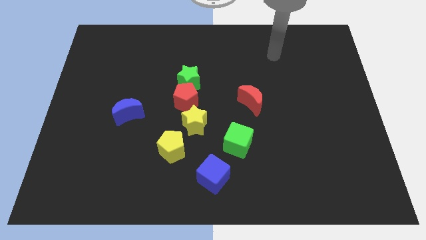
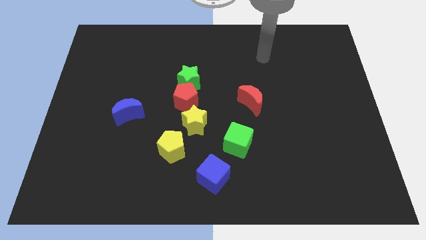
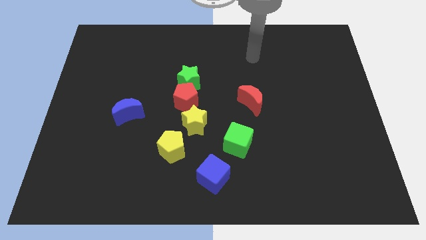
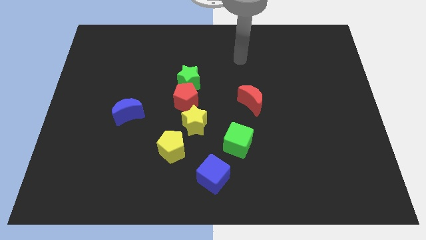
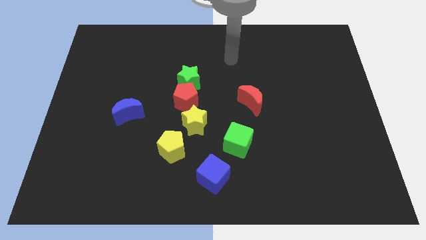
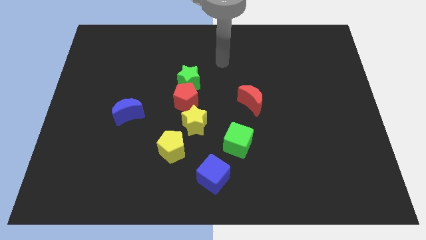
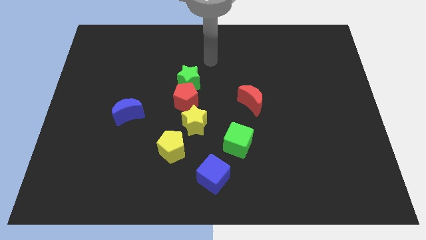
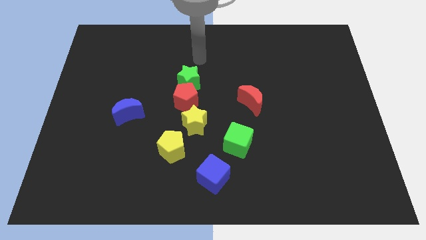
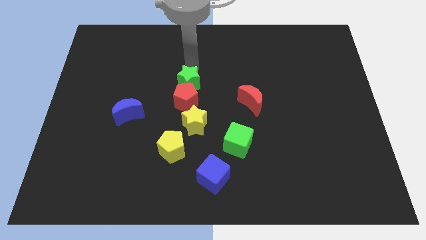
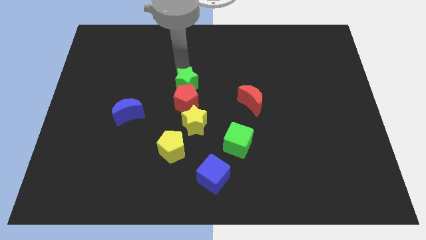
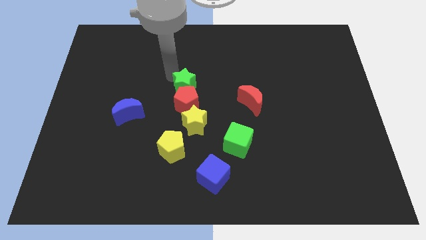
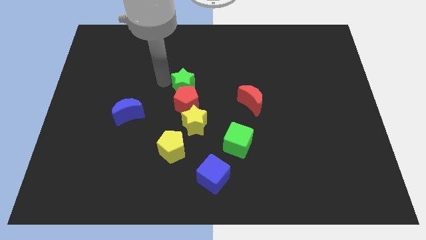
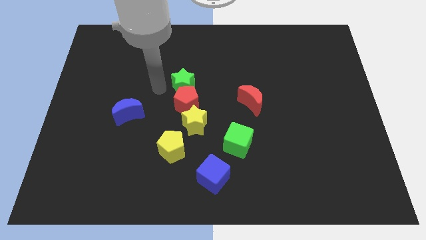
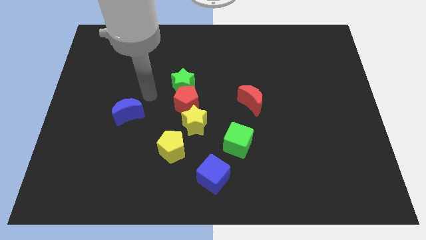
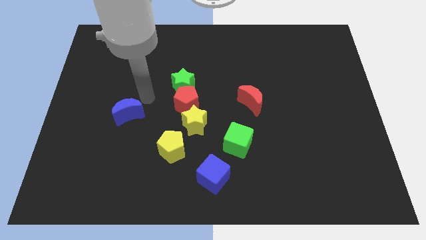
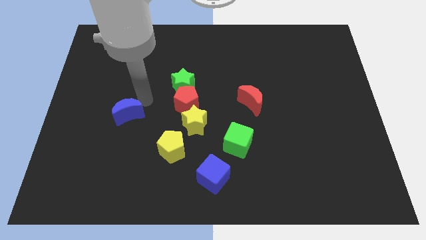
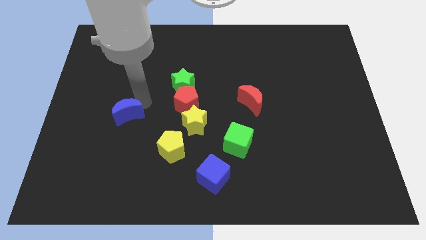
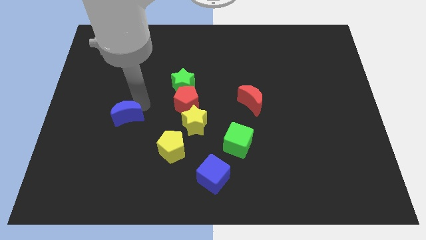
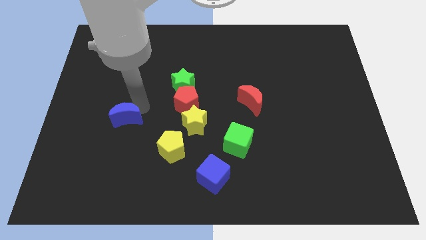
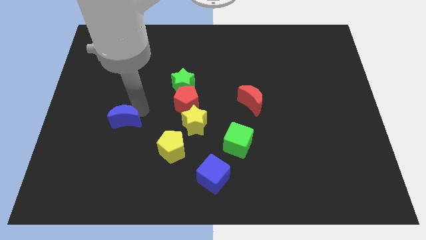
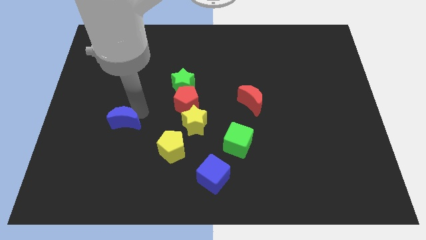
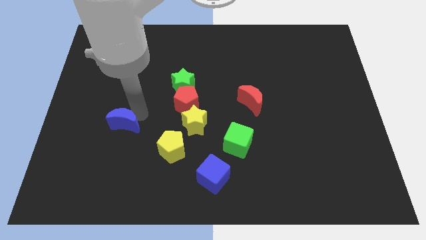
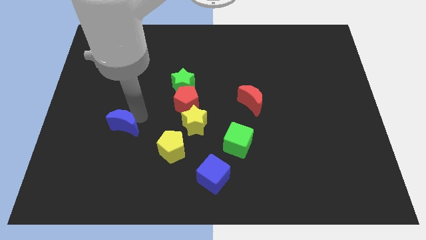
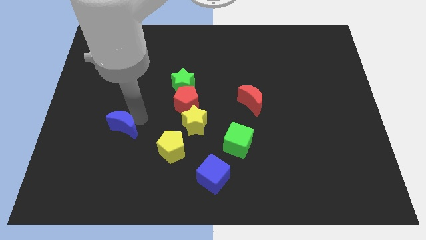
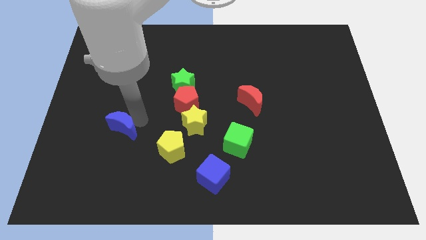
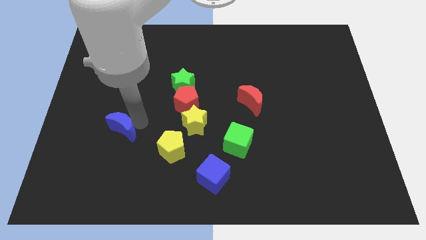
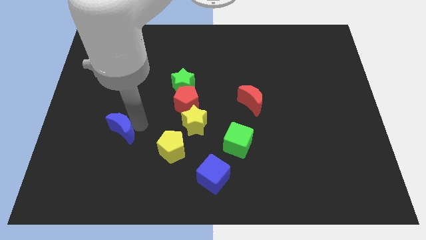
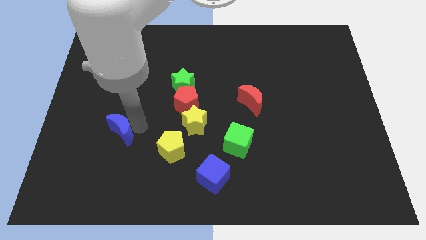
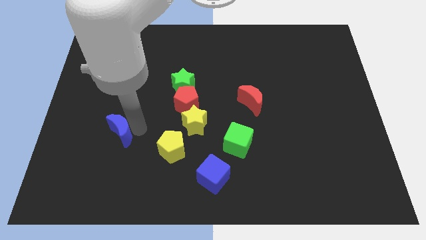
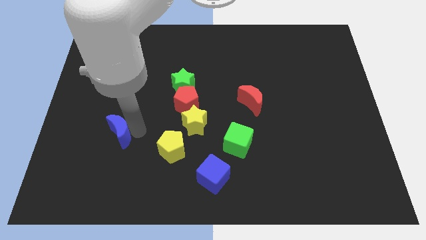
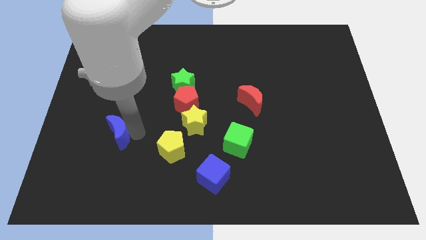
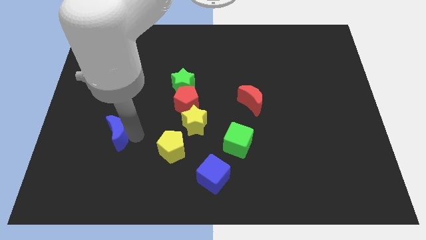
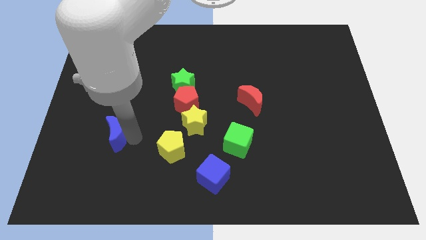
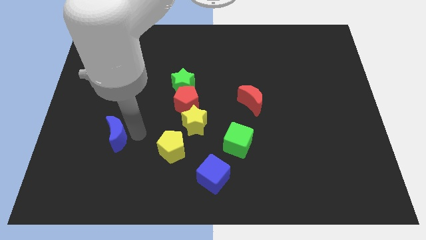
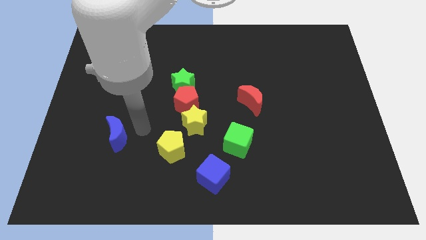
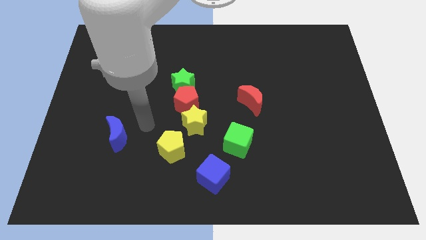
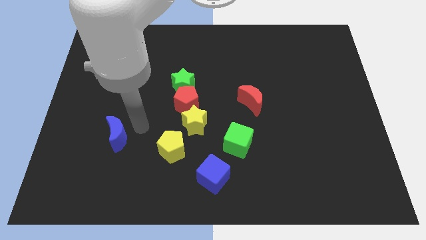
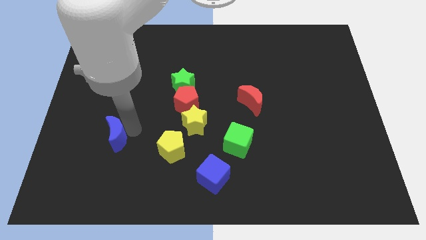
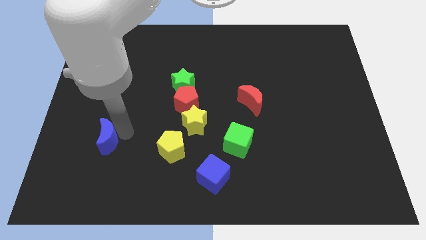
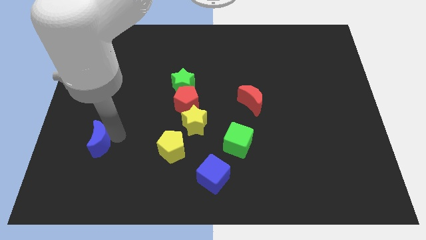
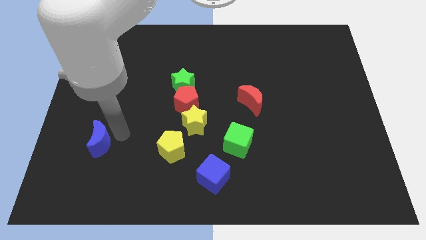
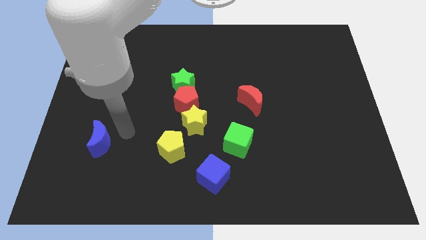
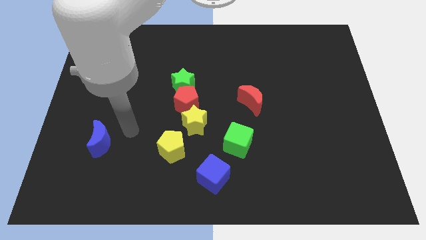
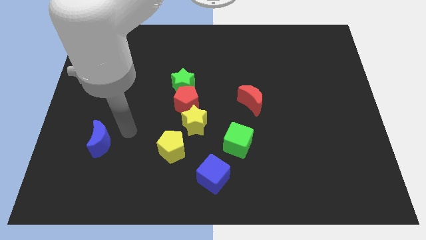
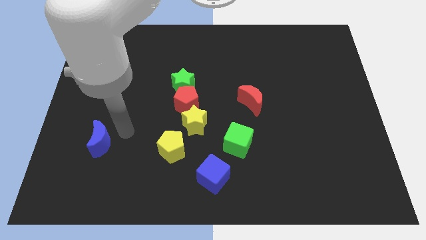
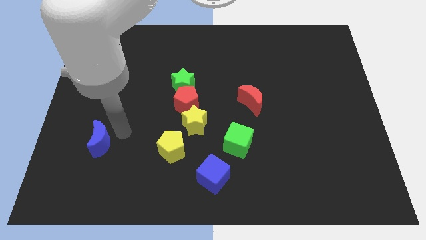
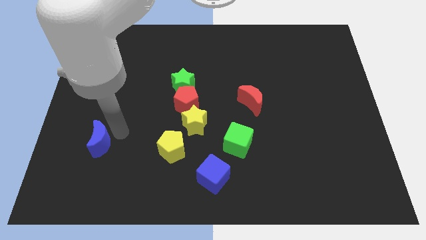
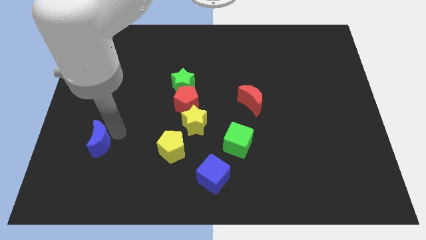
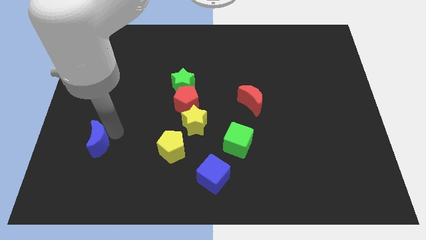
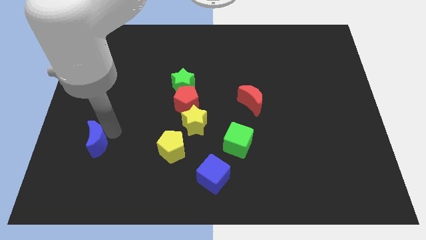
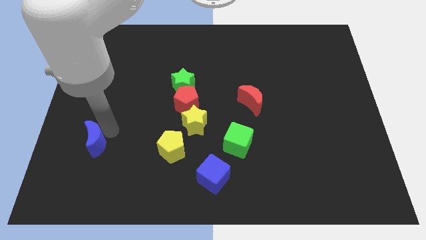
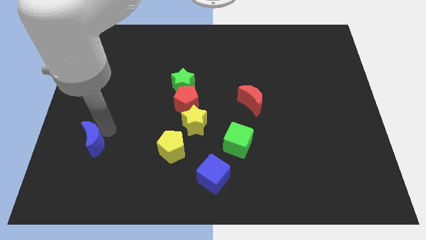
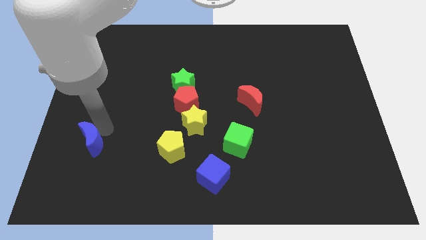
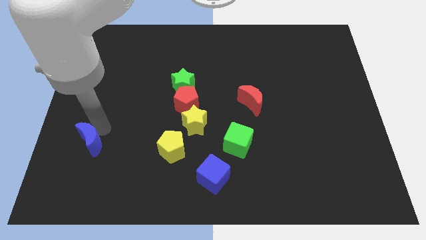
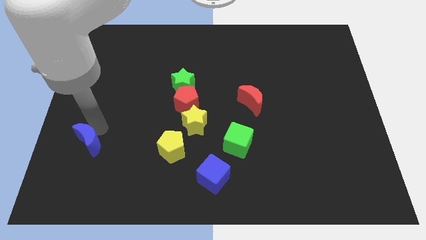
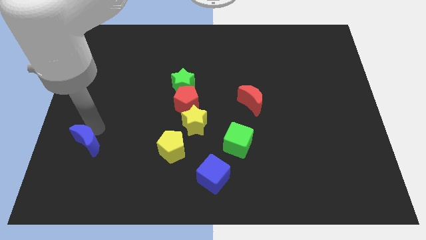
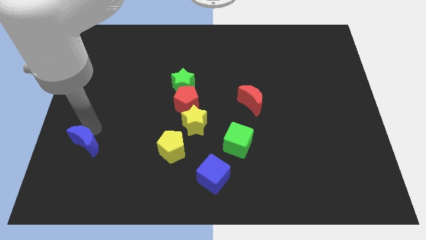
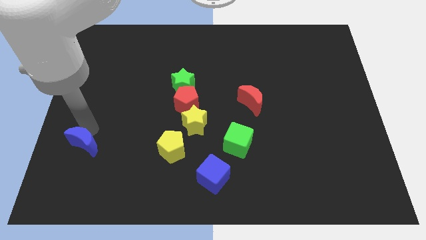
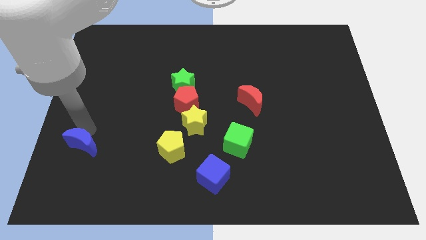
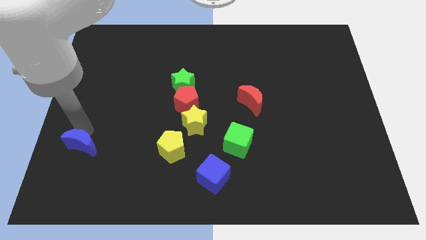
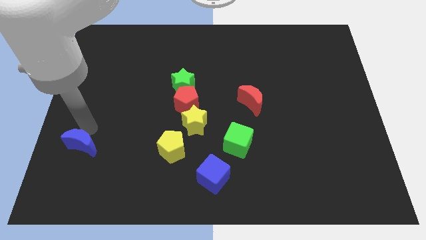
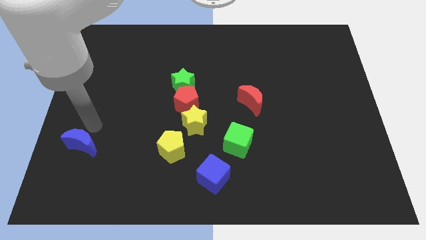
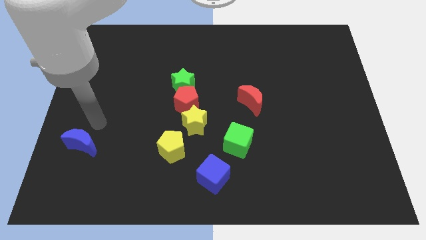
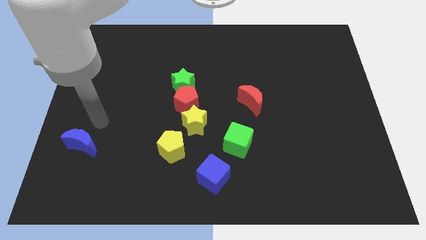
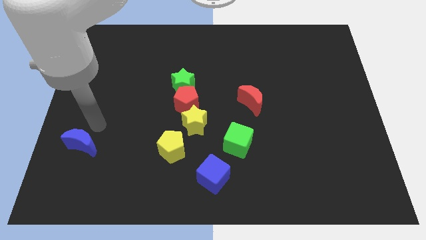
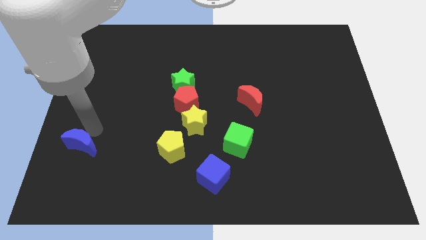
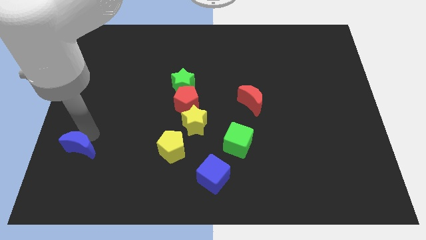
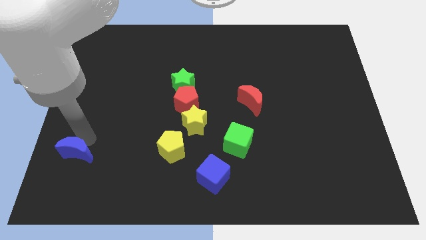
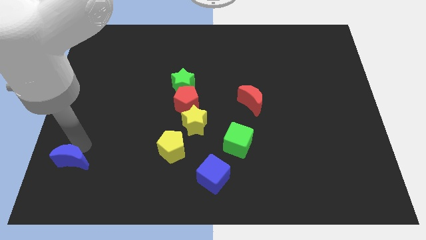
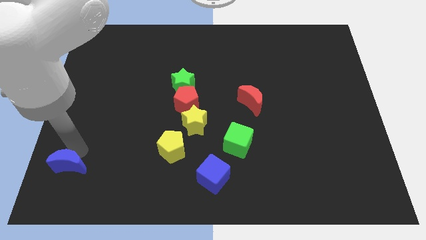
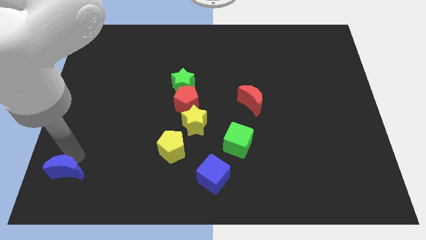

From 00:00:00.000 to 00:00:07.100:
slide the blue moon to the bottom left corner
